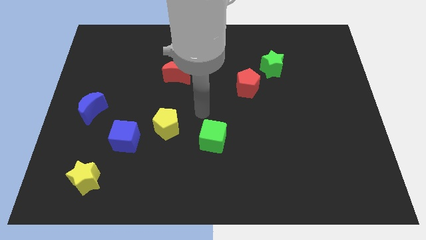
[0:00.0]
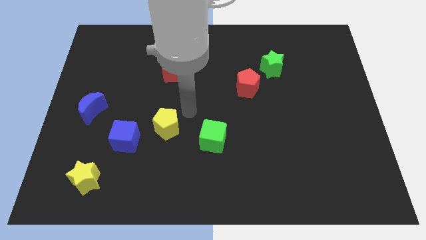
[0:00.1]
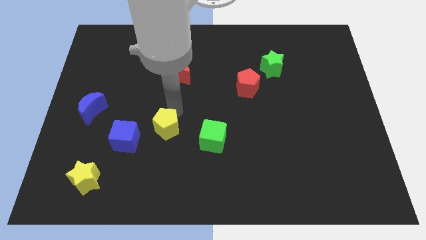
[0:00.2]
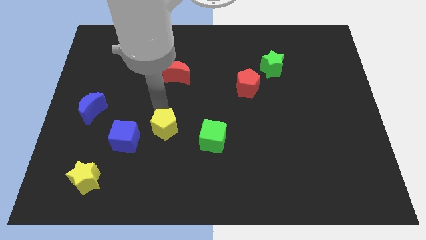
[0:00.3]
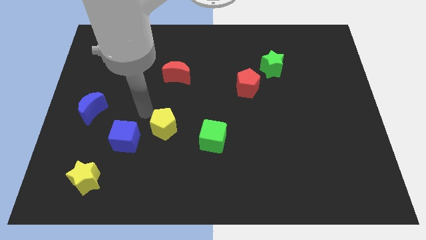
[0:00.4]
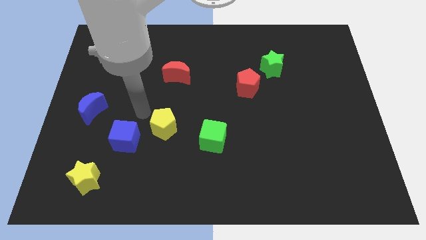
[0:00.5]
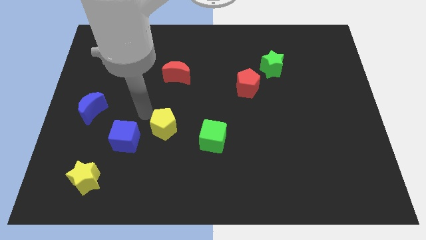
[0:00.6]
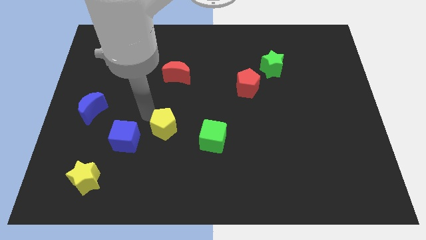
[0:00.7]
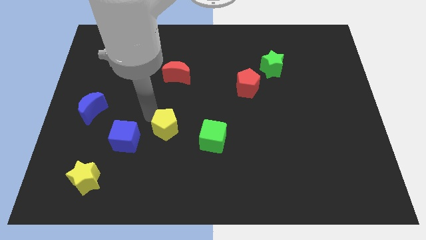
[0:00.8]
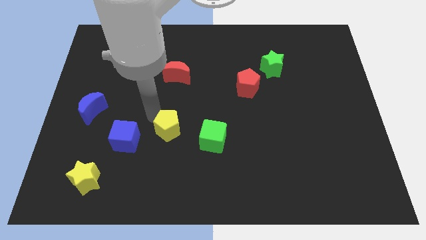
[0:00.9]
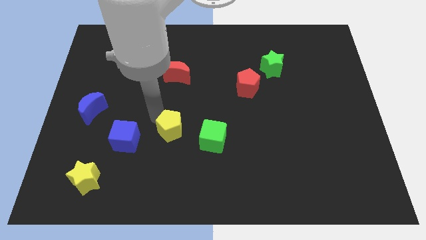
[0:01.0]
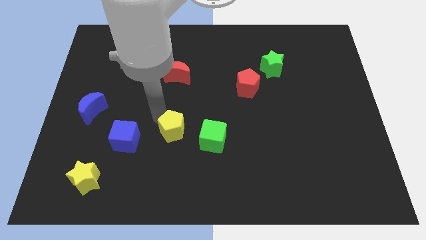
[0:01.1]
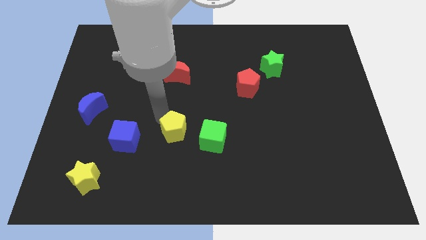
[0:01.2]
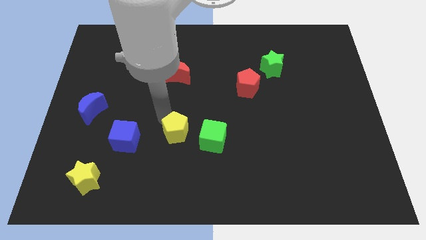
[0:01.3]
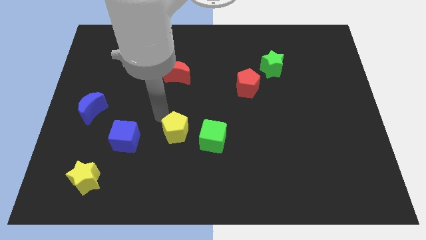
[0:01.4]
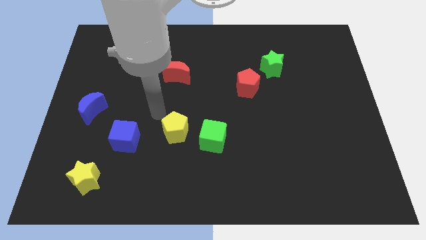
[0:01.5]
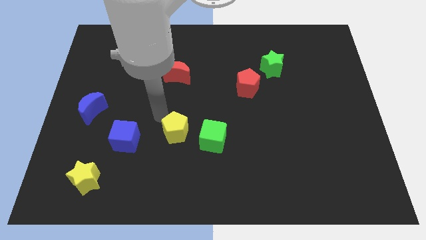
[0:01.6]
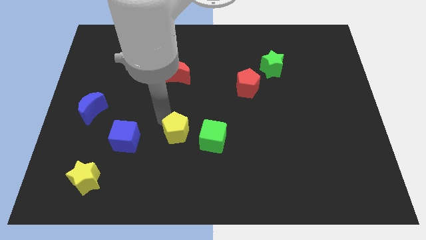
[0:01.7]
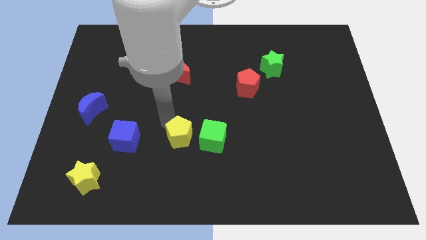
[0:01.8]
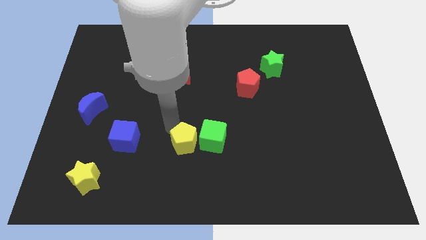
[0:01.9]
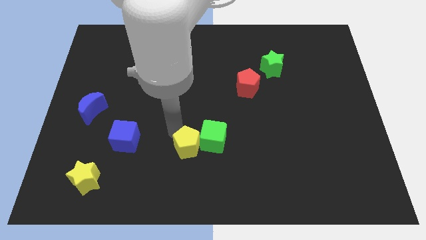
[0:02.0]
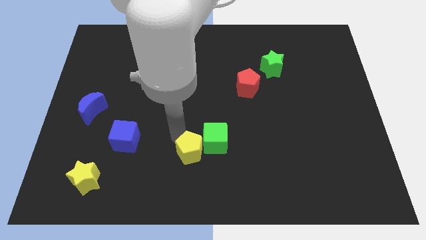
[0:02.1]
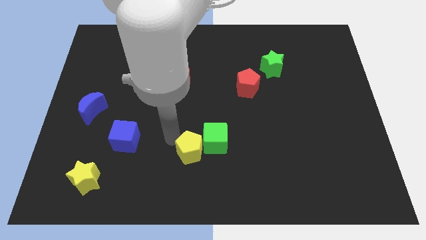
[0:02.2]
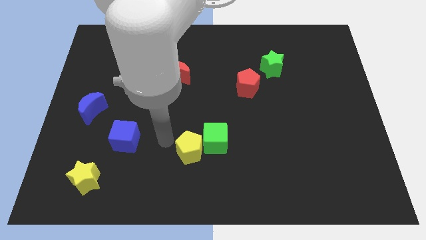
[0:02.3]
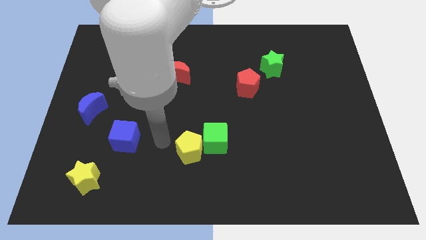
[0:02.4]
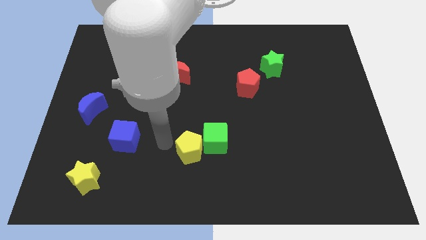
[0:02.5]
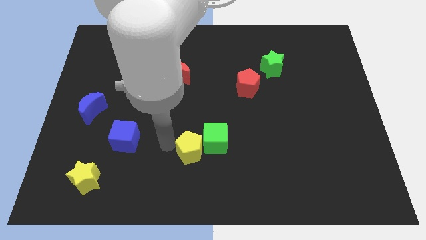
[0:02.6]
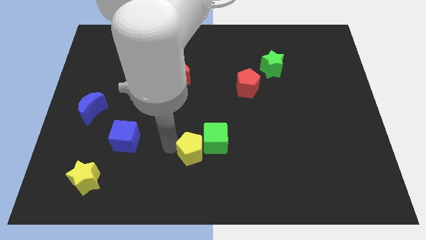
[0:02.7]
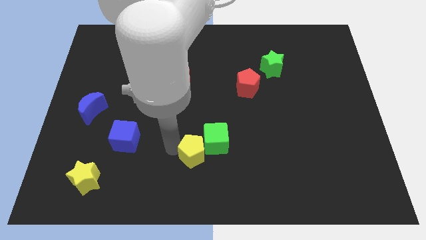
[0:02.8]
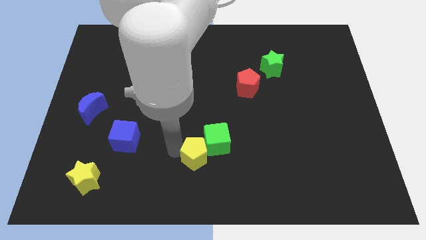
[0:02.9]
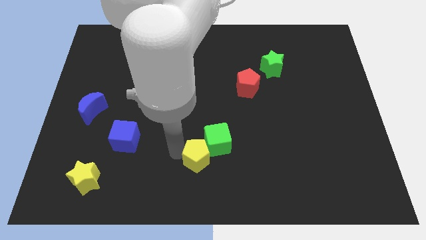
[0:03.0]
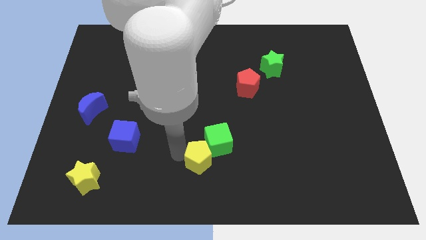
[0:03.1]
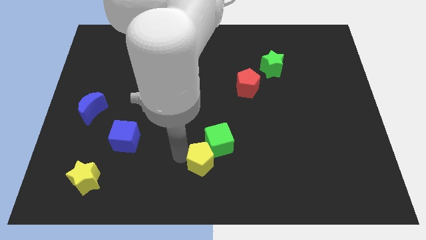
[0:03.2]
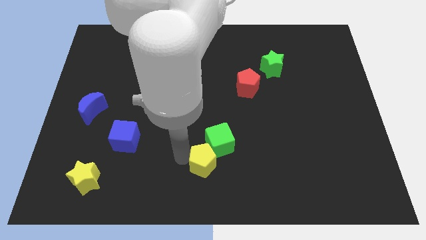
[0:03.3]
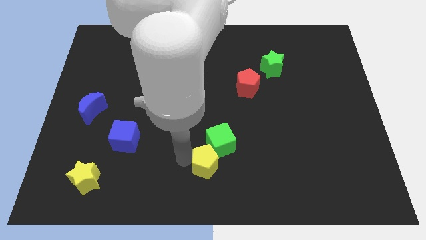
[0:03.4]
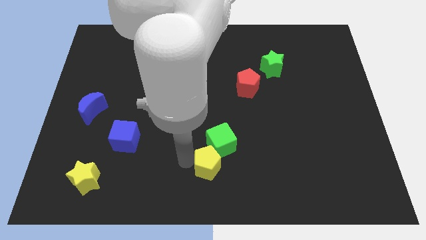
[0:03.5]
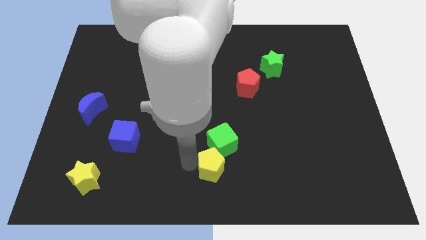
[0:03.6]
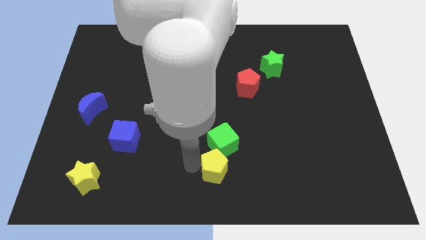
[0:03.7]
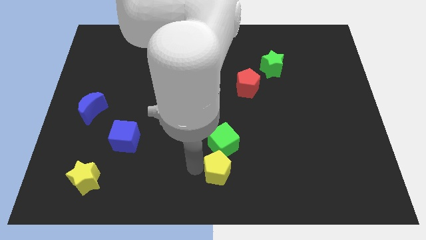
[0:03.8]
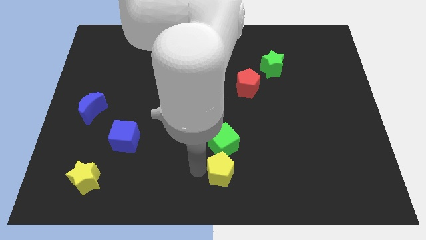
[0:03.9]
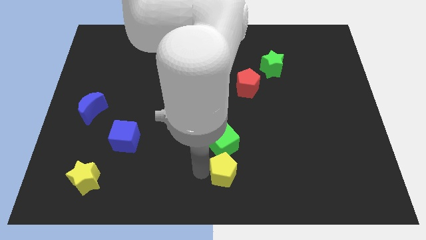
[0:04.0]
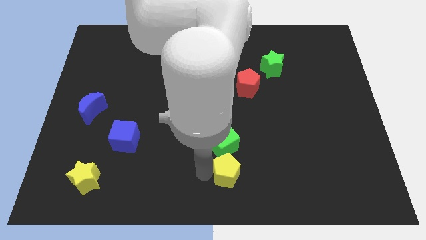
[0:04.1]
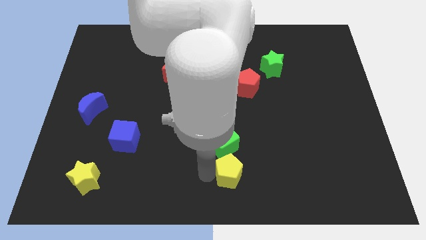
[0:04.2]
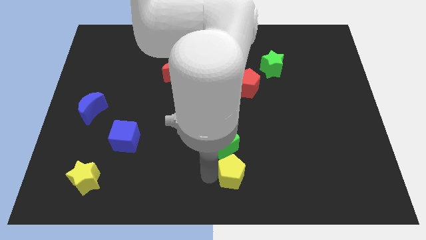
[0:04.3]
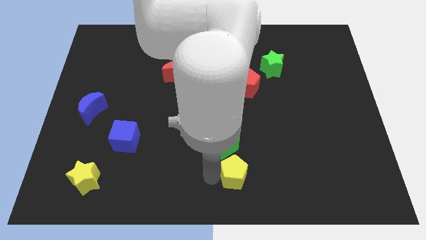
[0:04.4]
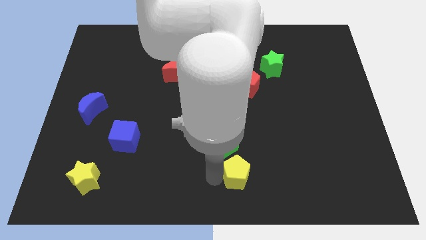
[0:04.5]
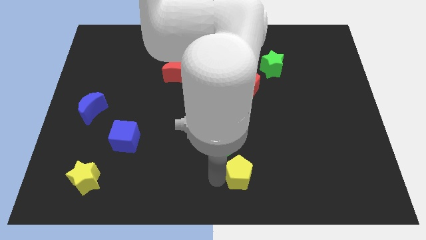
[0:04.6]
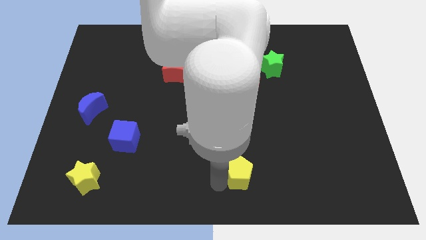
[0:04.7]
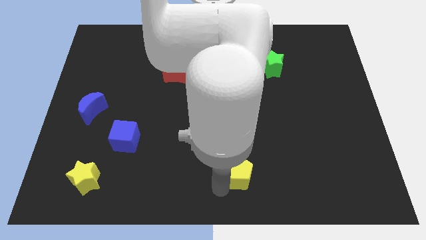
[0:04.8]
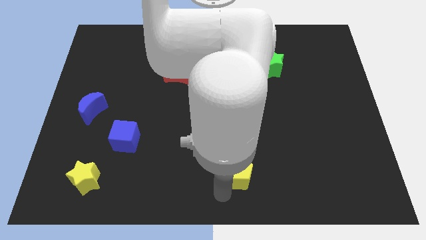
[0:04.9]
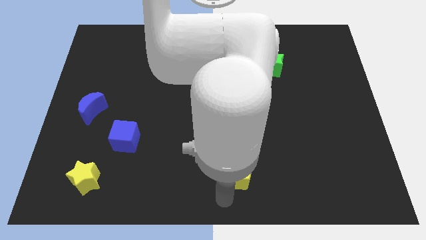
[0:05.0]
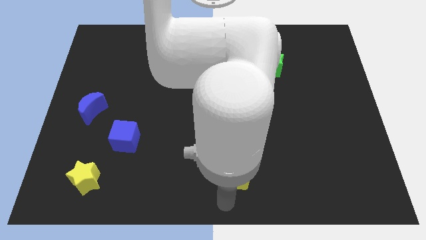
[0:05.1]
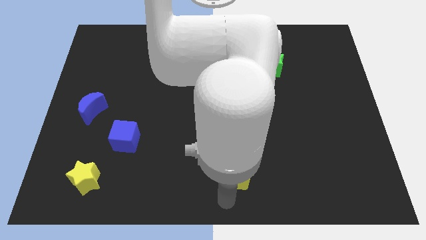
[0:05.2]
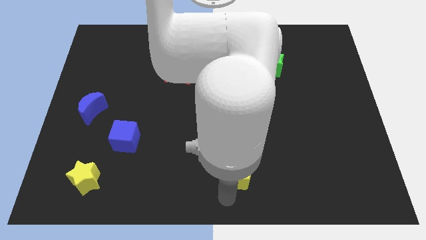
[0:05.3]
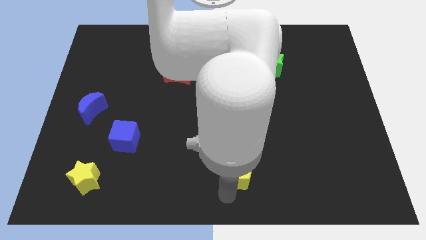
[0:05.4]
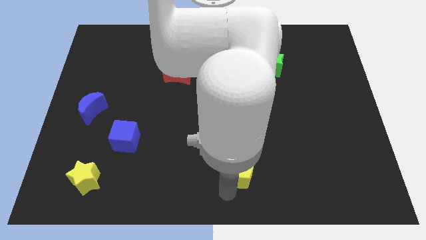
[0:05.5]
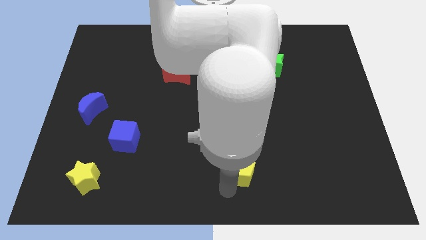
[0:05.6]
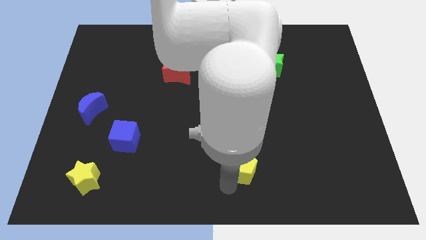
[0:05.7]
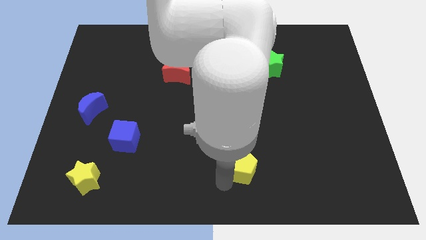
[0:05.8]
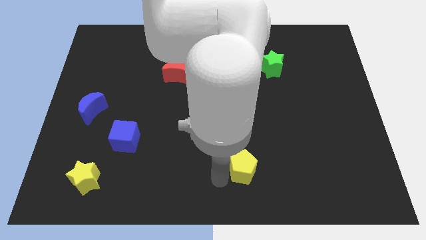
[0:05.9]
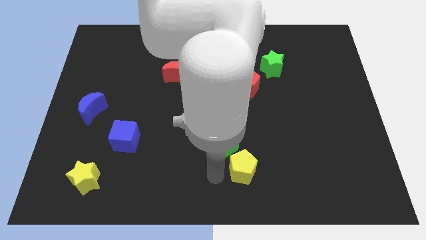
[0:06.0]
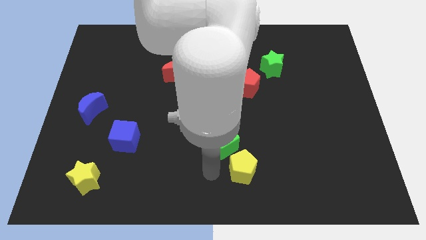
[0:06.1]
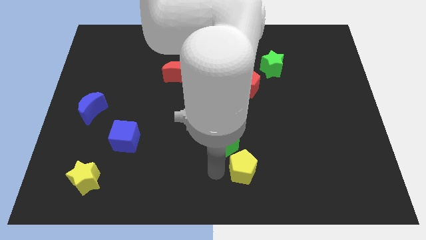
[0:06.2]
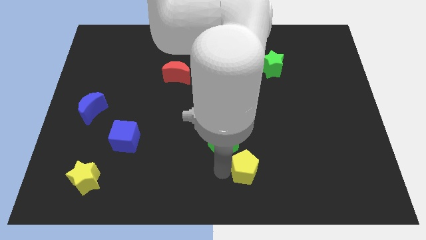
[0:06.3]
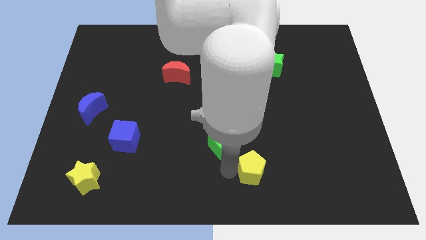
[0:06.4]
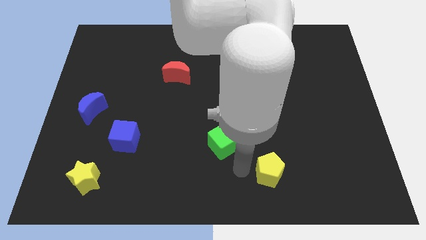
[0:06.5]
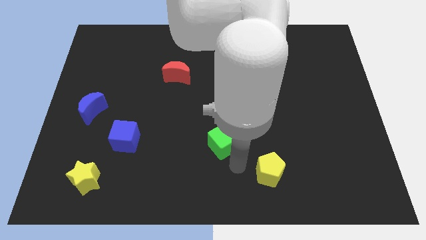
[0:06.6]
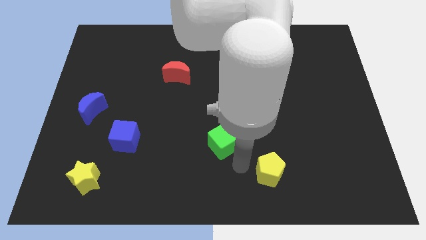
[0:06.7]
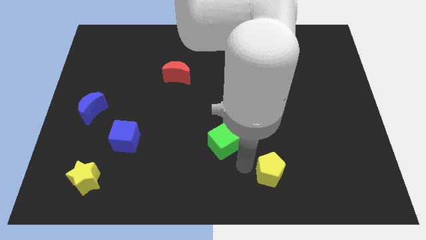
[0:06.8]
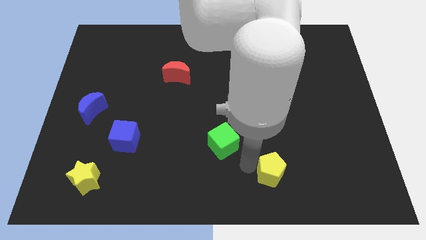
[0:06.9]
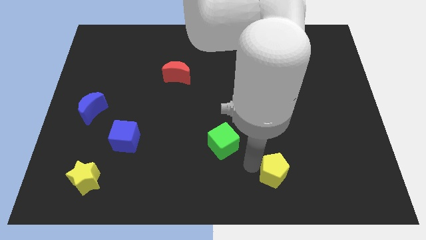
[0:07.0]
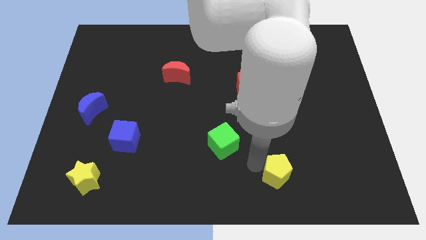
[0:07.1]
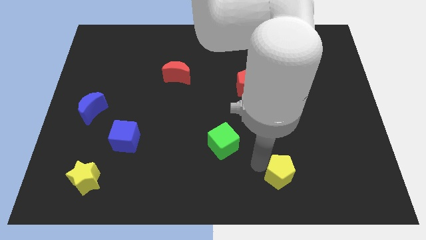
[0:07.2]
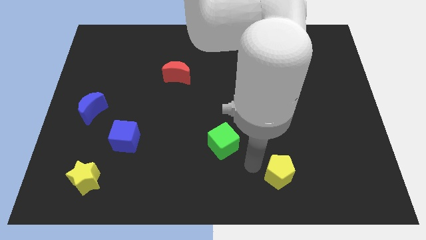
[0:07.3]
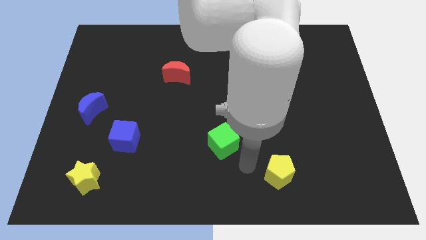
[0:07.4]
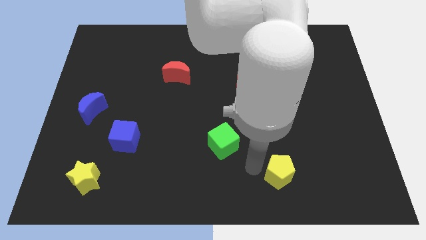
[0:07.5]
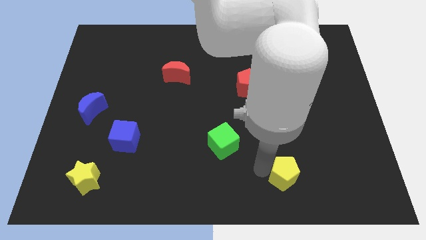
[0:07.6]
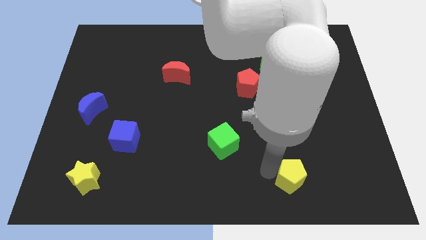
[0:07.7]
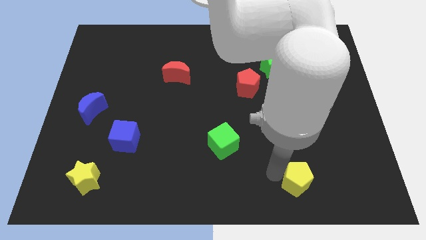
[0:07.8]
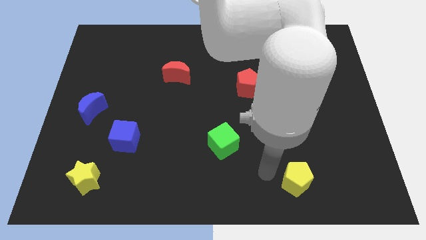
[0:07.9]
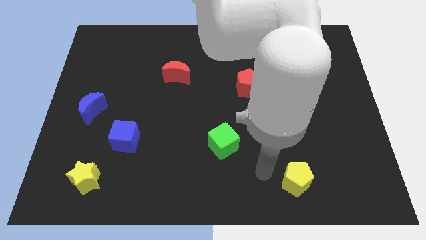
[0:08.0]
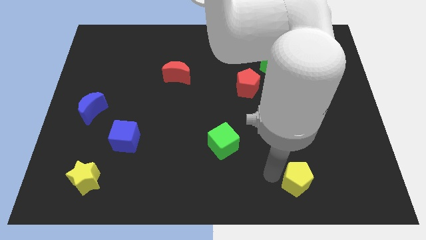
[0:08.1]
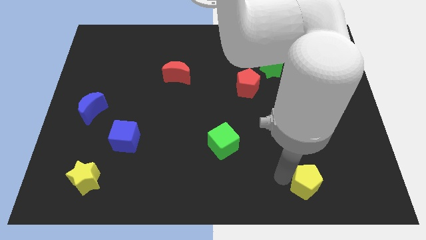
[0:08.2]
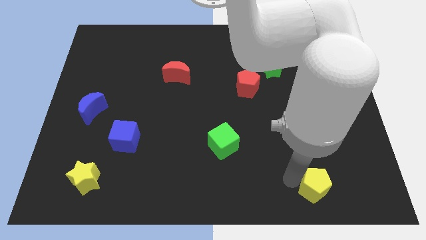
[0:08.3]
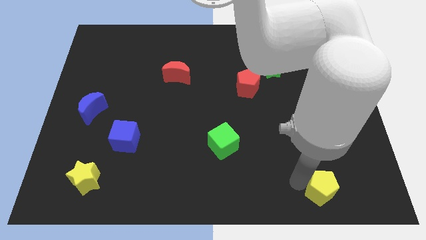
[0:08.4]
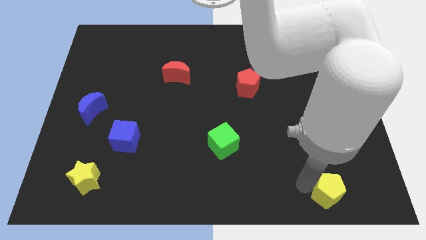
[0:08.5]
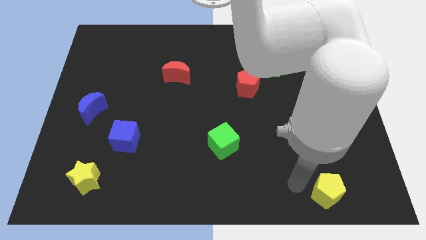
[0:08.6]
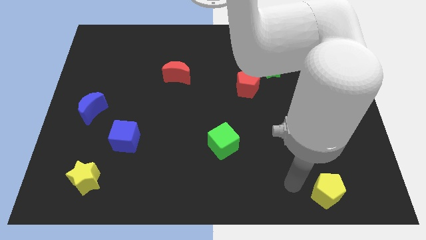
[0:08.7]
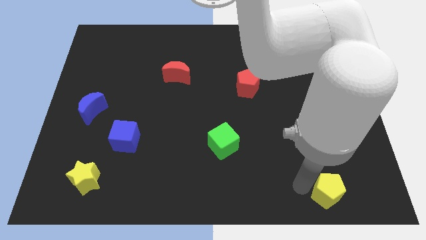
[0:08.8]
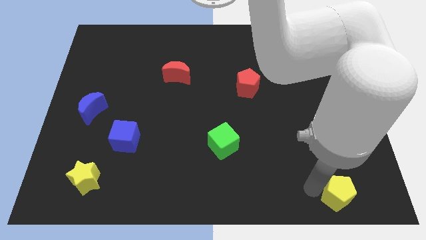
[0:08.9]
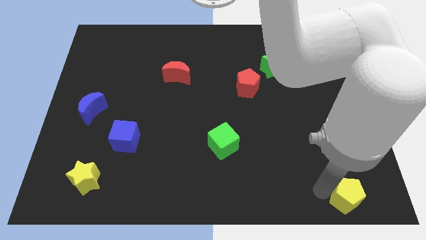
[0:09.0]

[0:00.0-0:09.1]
move the yellow pentagon to the bottom right of the board
